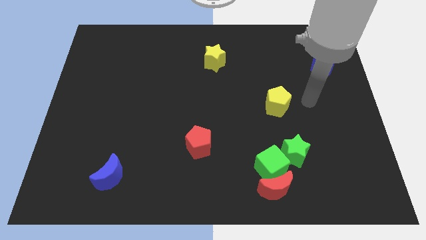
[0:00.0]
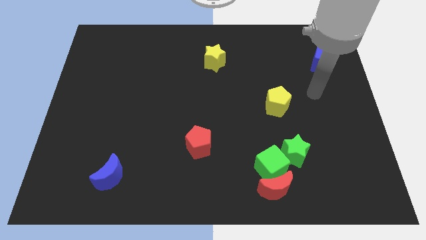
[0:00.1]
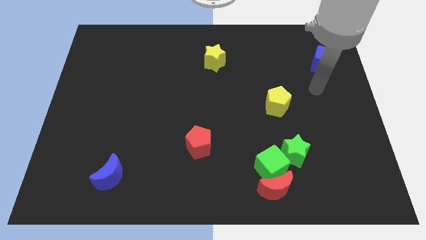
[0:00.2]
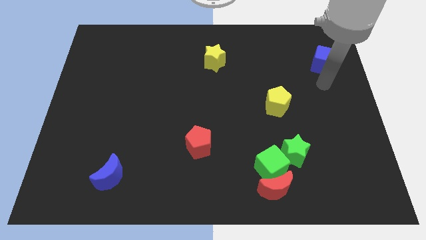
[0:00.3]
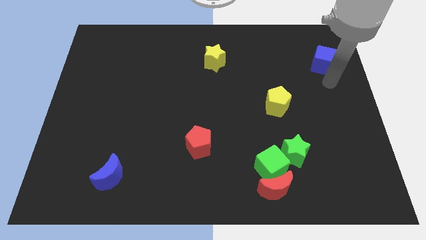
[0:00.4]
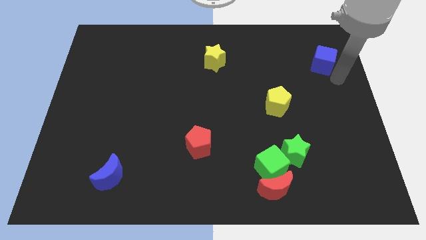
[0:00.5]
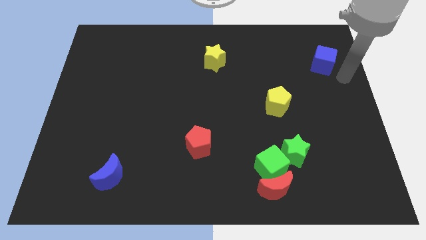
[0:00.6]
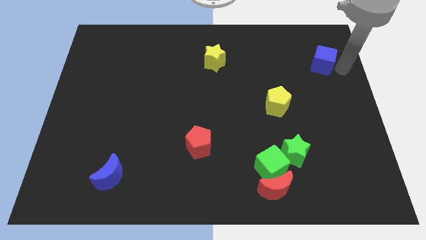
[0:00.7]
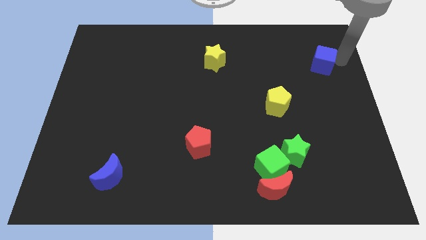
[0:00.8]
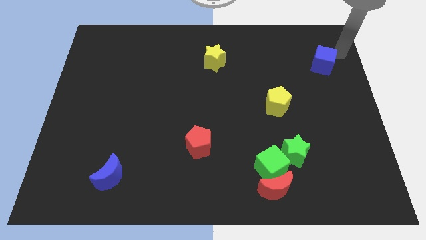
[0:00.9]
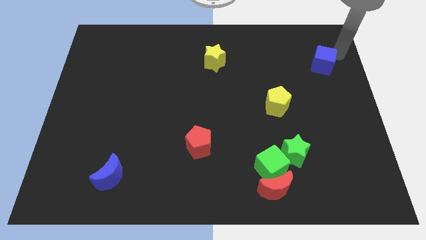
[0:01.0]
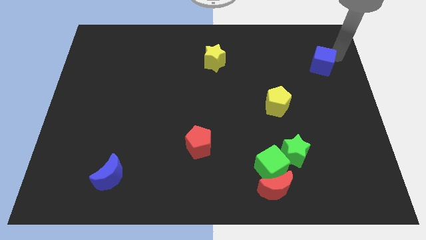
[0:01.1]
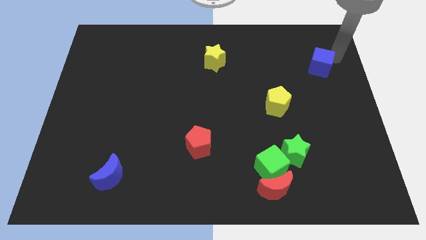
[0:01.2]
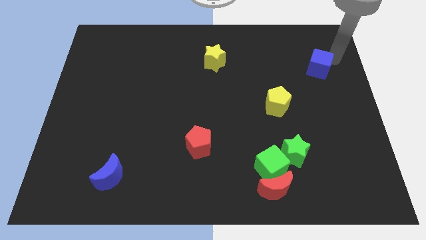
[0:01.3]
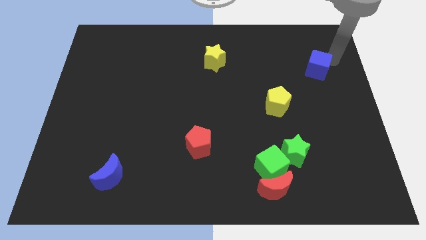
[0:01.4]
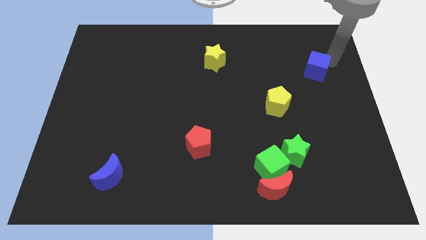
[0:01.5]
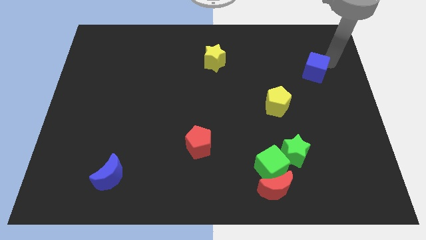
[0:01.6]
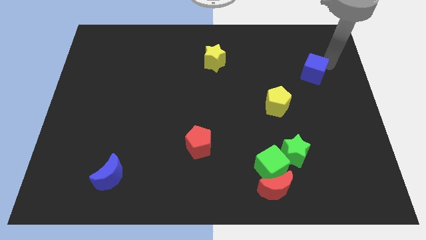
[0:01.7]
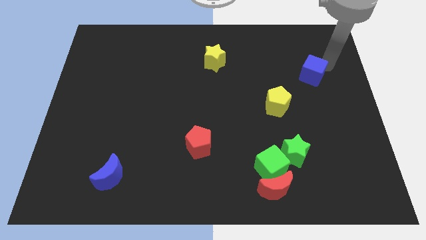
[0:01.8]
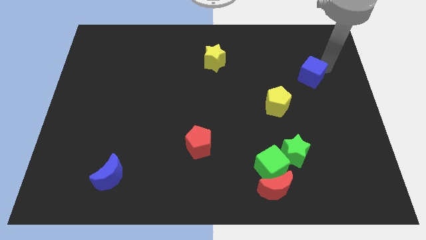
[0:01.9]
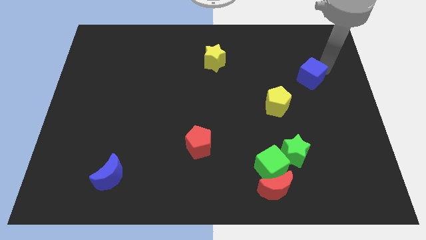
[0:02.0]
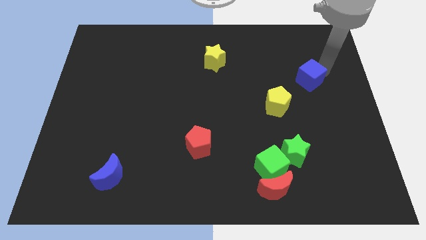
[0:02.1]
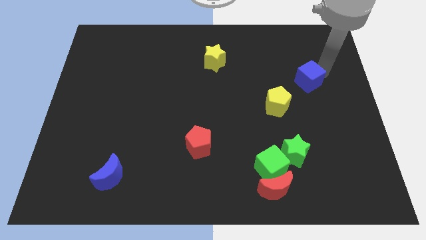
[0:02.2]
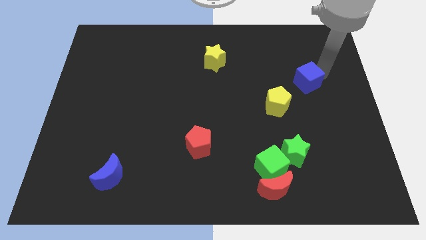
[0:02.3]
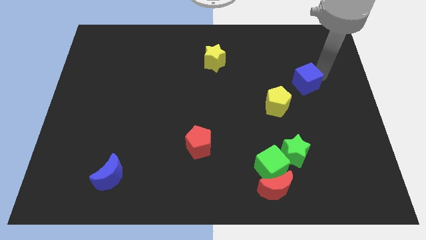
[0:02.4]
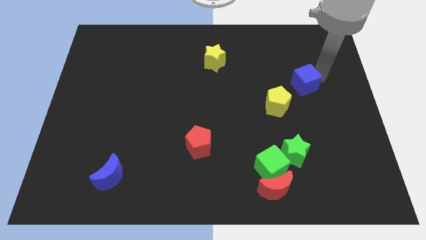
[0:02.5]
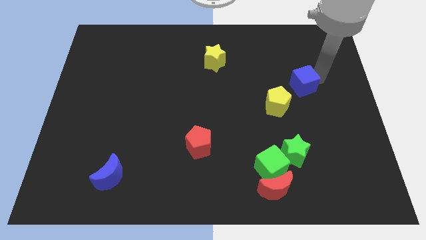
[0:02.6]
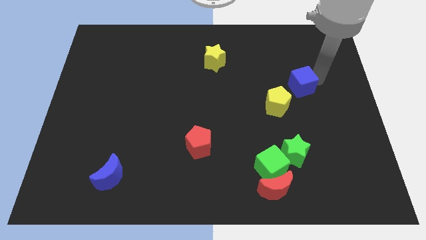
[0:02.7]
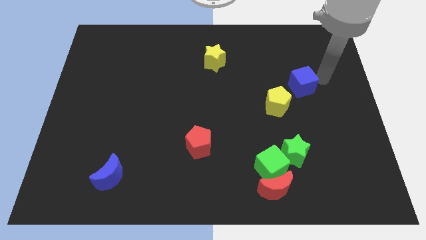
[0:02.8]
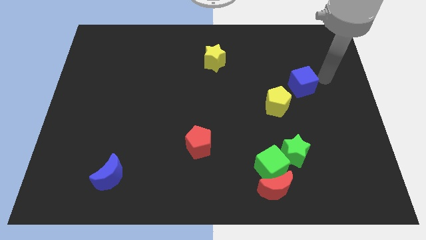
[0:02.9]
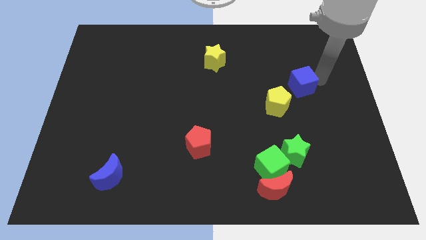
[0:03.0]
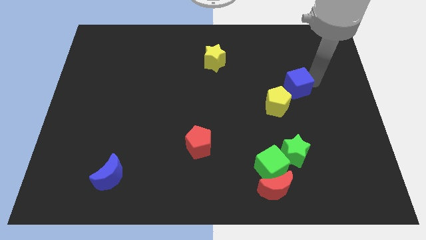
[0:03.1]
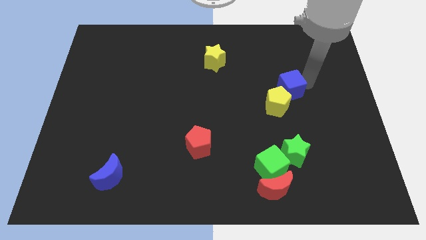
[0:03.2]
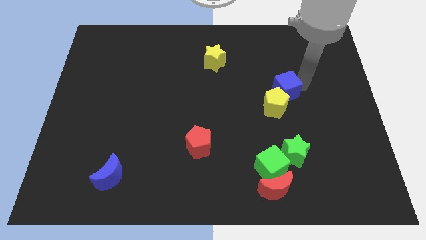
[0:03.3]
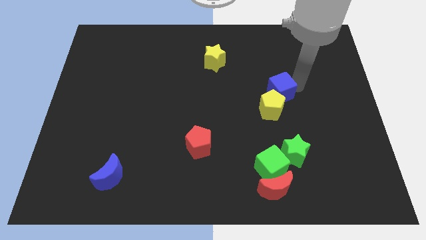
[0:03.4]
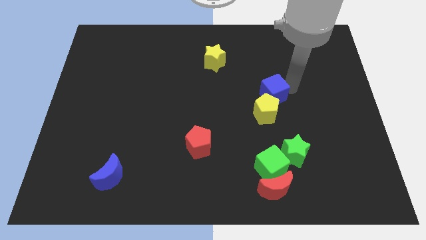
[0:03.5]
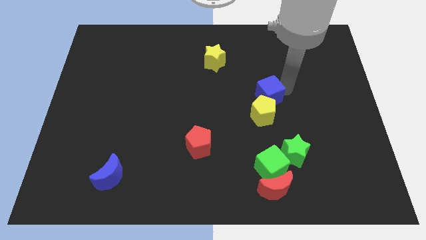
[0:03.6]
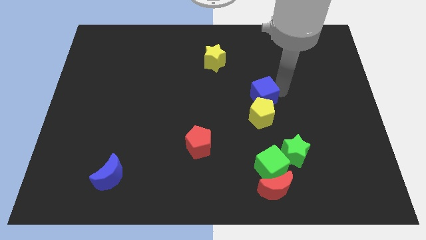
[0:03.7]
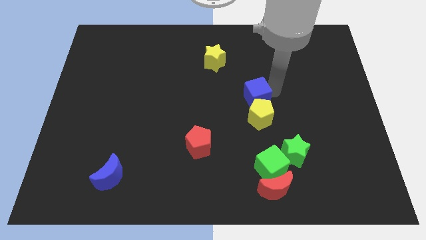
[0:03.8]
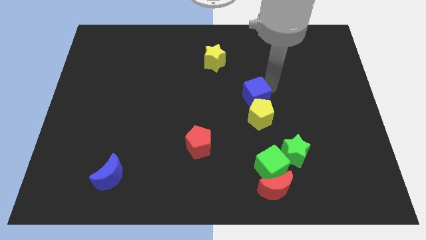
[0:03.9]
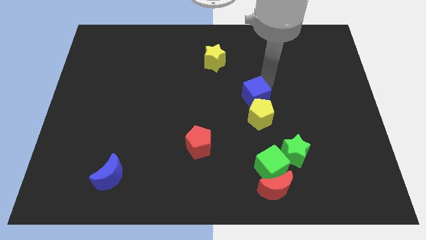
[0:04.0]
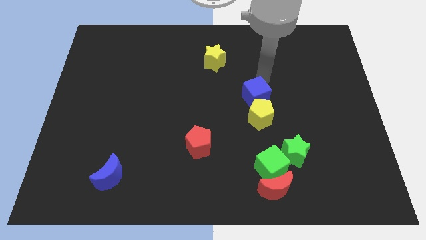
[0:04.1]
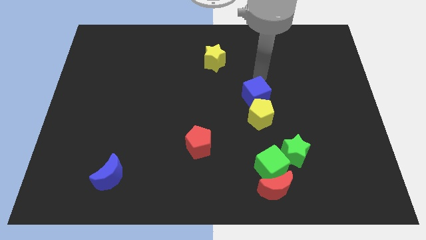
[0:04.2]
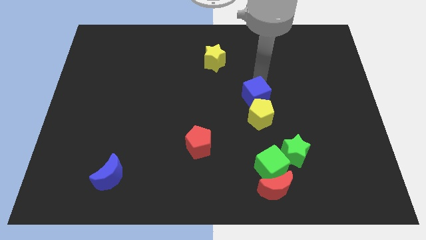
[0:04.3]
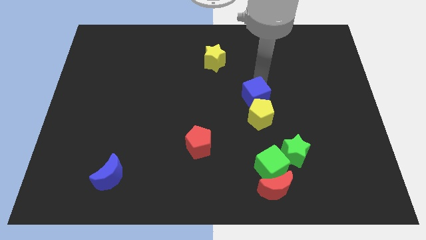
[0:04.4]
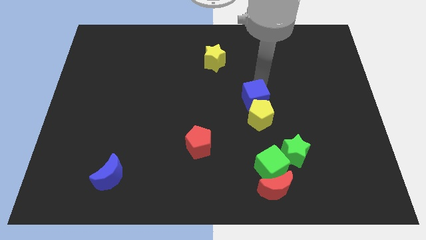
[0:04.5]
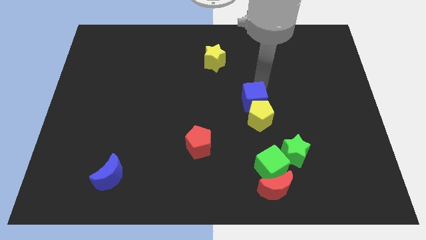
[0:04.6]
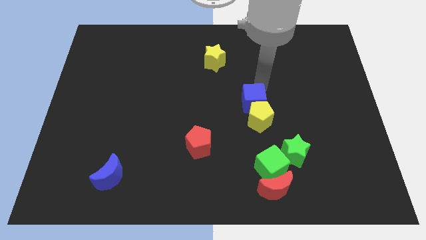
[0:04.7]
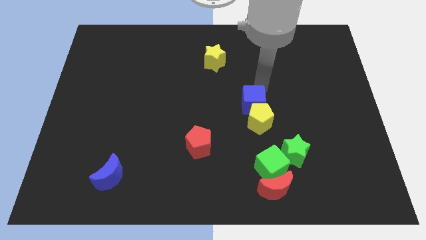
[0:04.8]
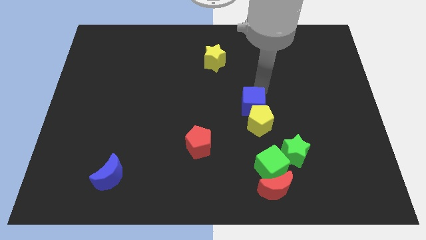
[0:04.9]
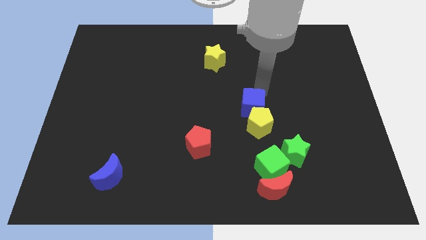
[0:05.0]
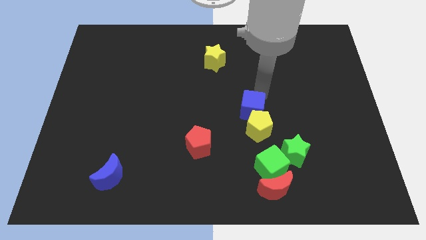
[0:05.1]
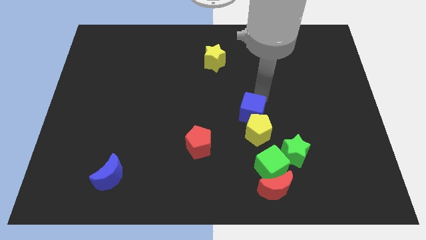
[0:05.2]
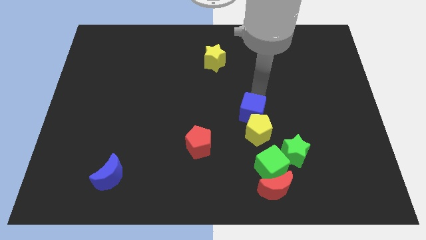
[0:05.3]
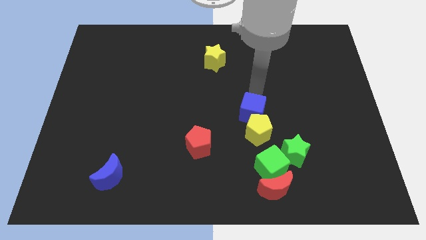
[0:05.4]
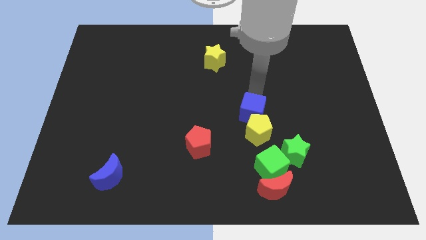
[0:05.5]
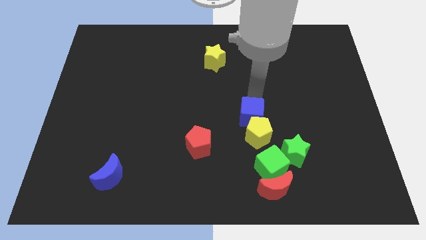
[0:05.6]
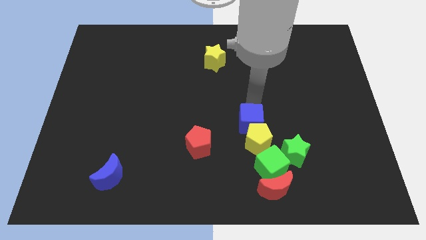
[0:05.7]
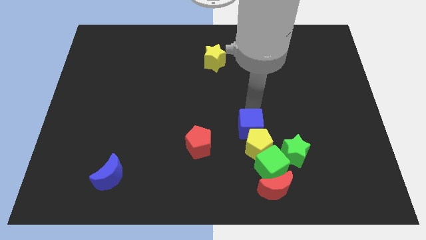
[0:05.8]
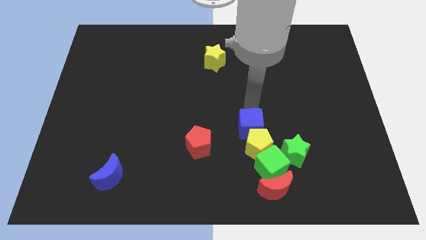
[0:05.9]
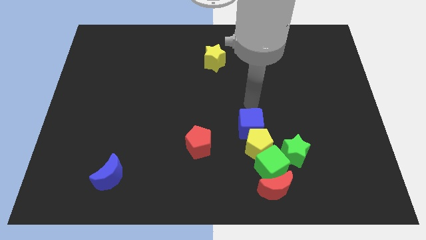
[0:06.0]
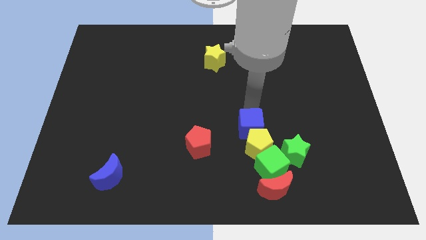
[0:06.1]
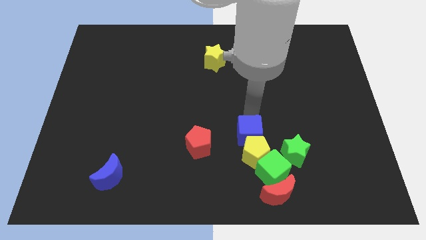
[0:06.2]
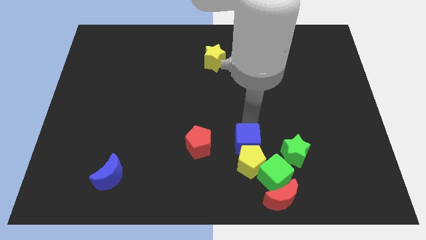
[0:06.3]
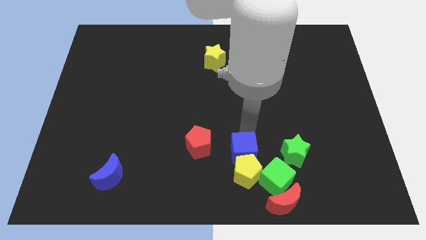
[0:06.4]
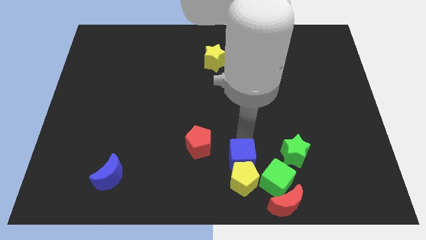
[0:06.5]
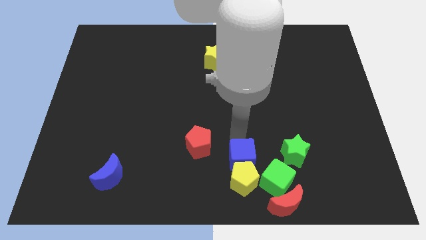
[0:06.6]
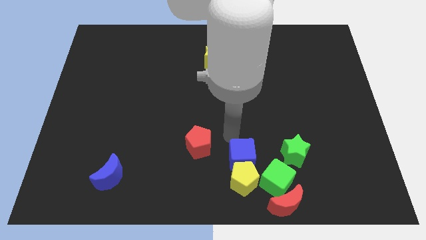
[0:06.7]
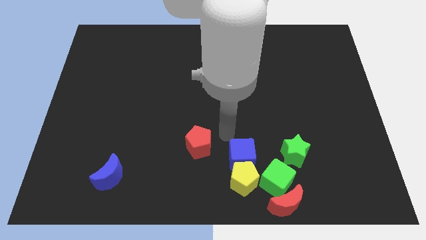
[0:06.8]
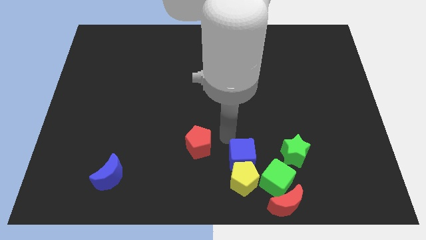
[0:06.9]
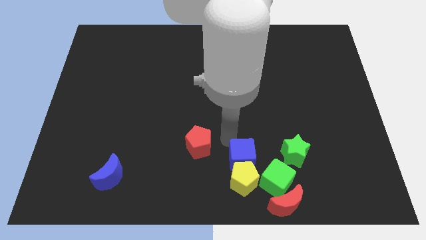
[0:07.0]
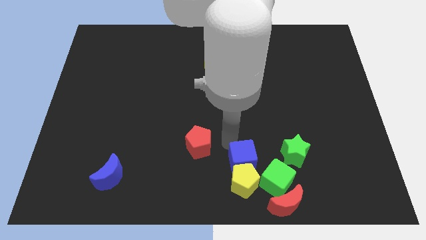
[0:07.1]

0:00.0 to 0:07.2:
push the blue cube to the top left side of the red moon

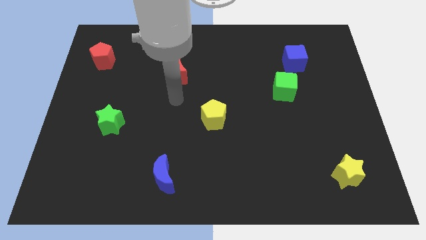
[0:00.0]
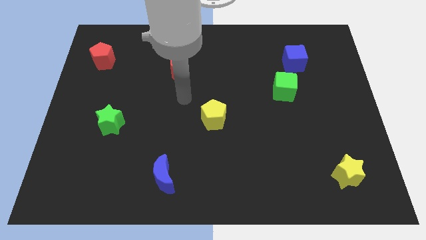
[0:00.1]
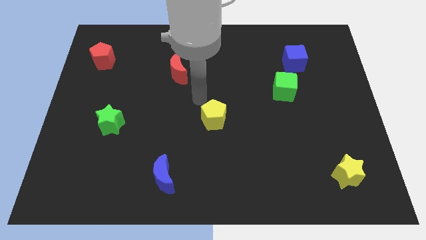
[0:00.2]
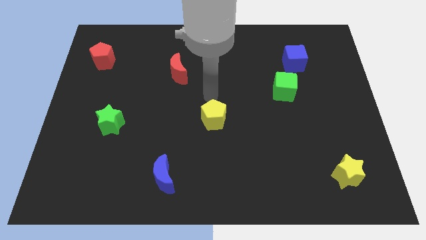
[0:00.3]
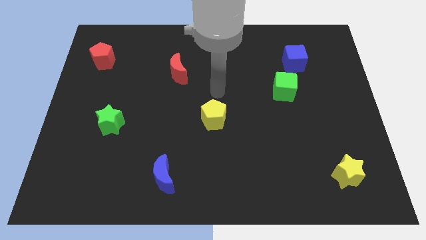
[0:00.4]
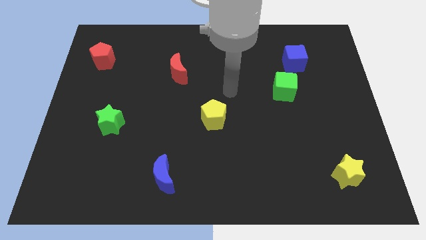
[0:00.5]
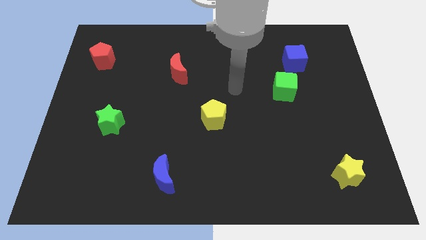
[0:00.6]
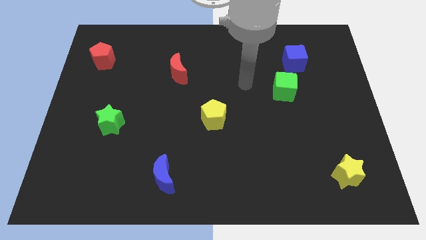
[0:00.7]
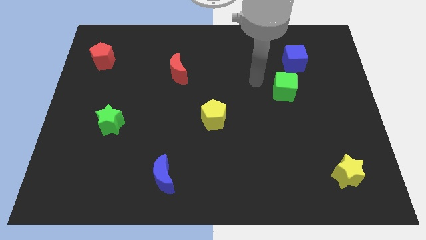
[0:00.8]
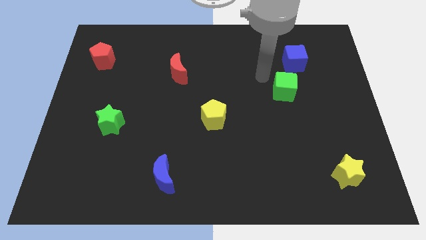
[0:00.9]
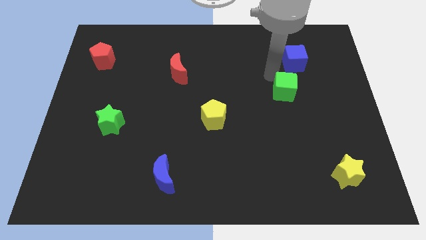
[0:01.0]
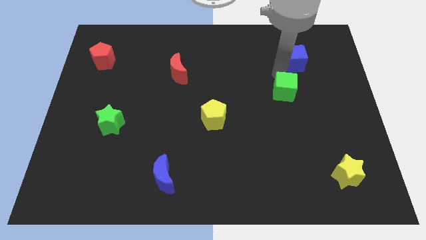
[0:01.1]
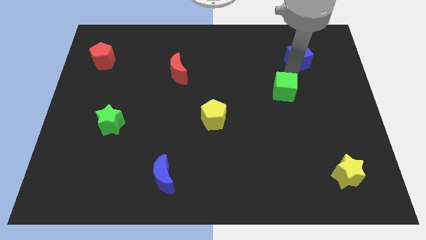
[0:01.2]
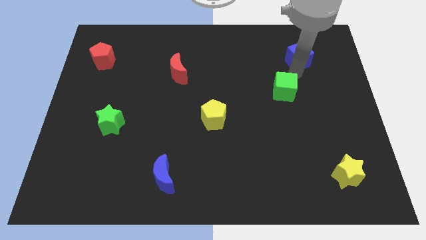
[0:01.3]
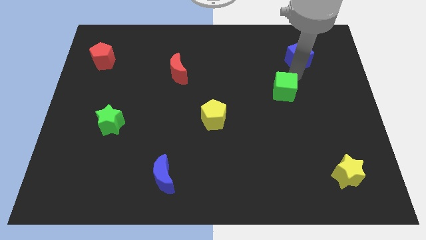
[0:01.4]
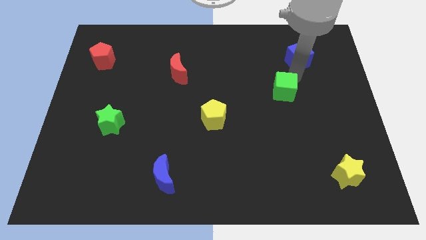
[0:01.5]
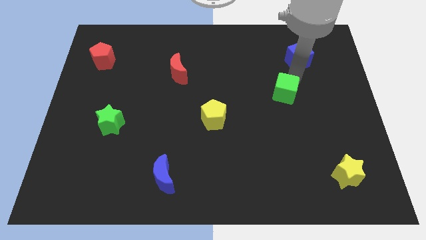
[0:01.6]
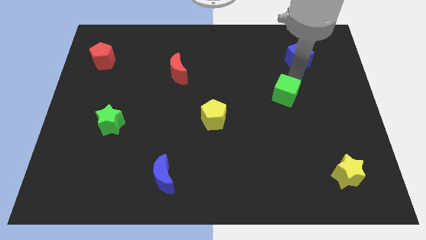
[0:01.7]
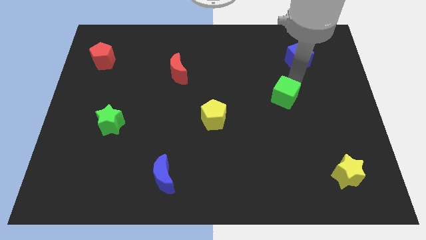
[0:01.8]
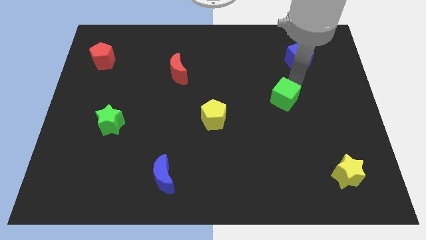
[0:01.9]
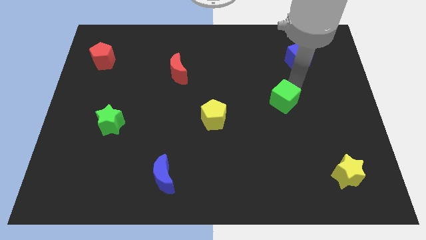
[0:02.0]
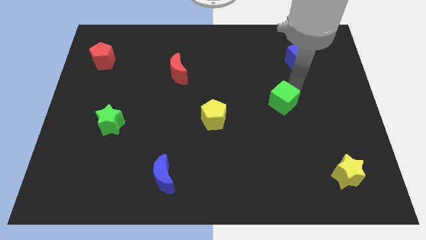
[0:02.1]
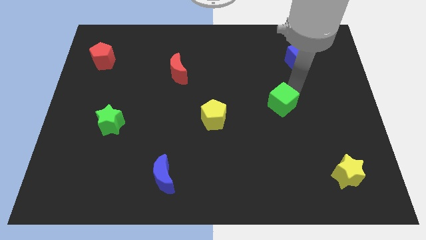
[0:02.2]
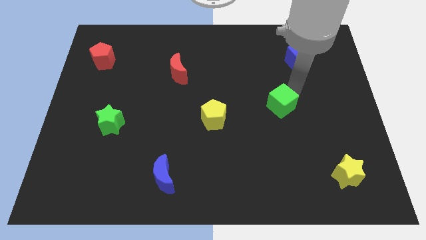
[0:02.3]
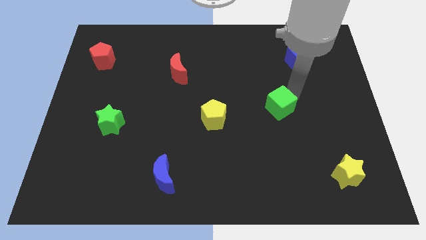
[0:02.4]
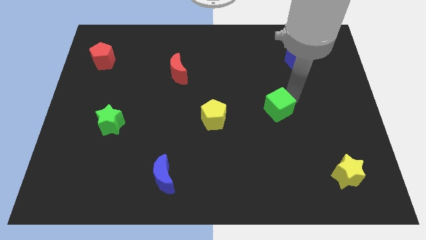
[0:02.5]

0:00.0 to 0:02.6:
slide the green cube to the right side of the yellow pentagon
